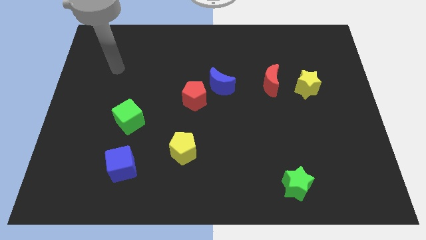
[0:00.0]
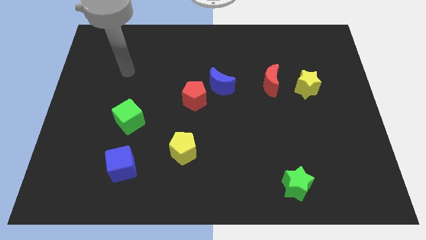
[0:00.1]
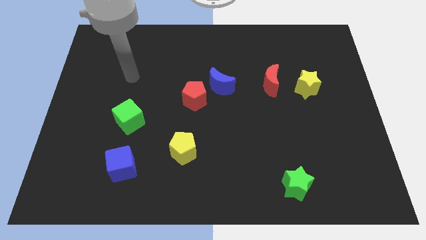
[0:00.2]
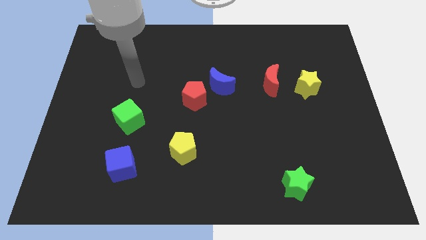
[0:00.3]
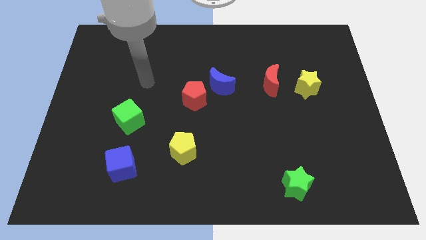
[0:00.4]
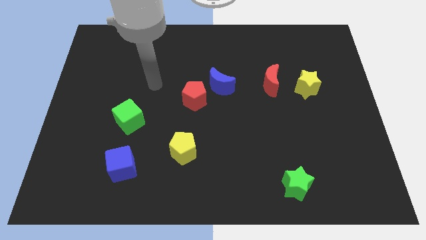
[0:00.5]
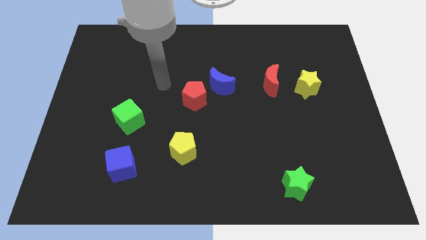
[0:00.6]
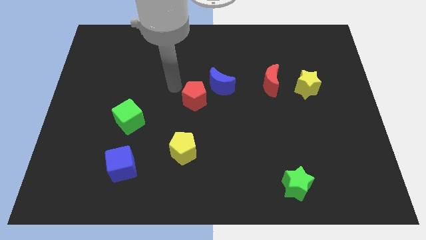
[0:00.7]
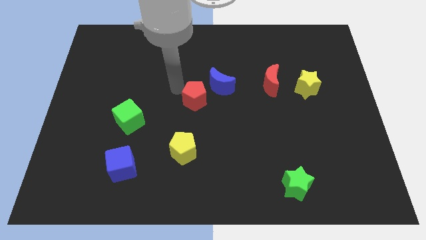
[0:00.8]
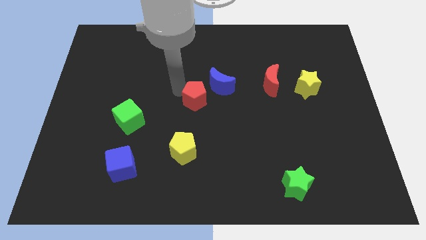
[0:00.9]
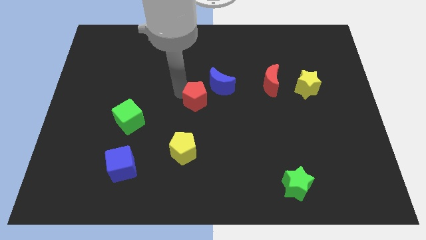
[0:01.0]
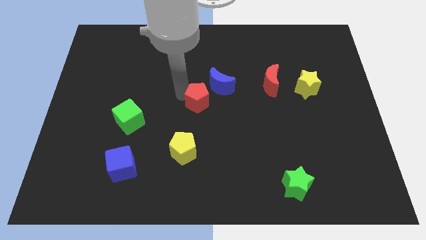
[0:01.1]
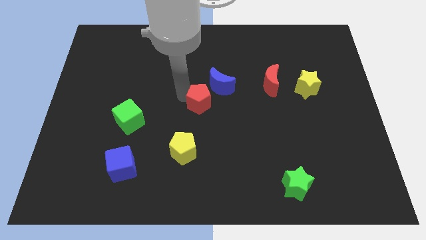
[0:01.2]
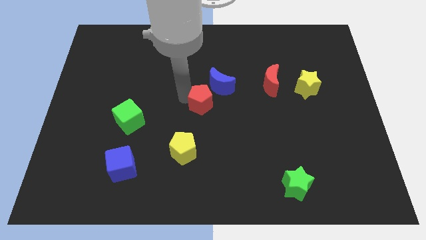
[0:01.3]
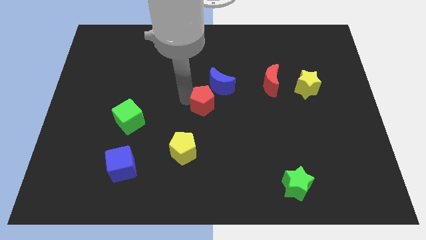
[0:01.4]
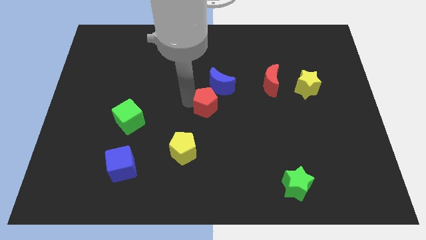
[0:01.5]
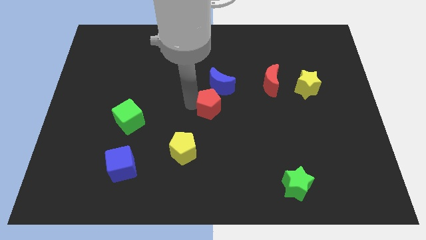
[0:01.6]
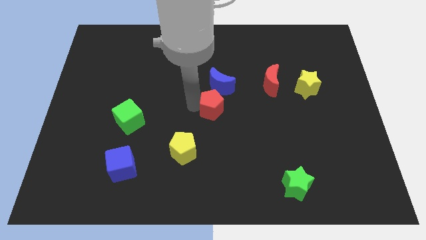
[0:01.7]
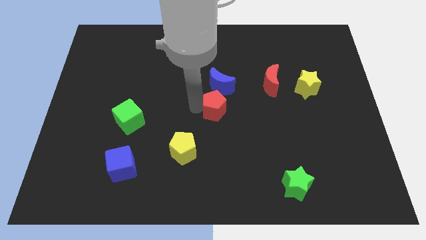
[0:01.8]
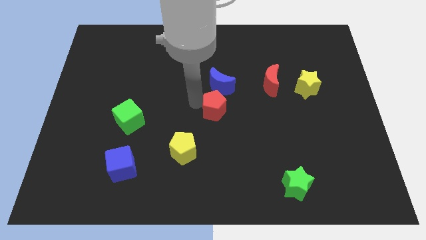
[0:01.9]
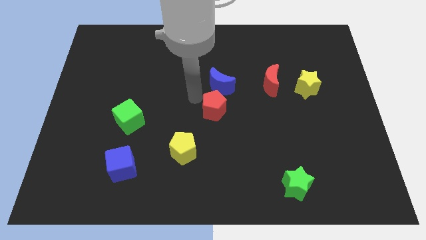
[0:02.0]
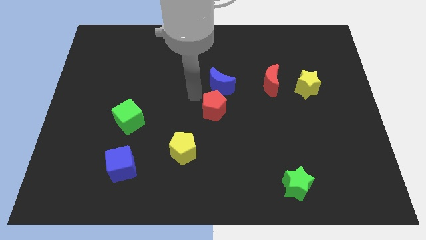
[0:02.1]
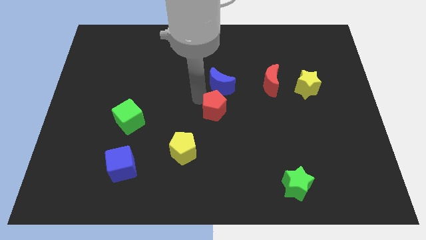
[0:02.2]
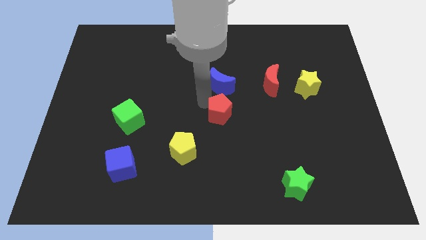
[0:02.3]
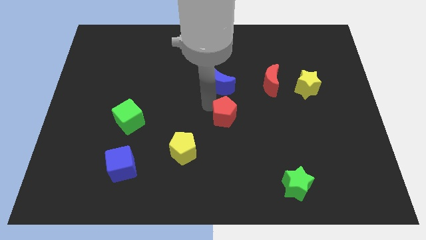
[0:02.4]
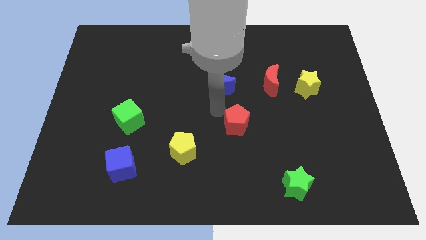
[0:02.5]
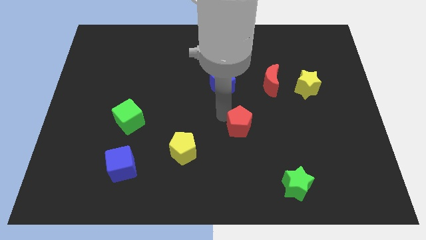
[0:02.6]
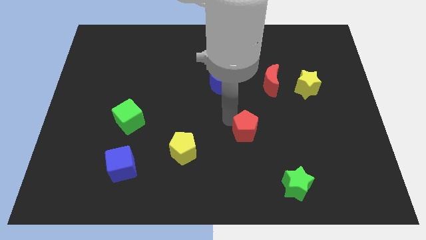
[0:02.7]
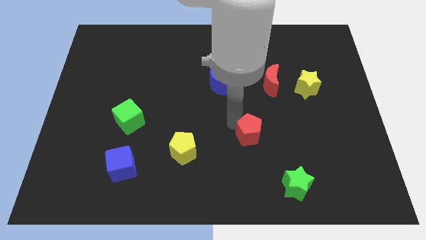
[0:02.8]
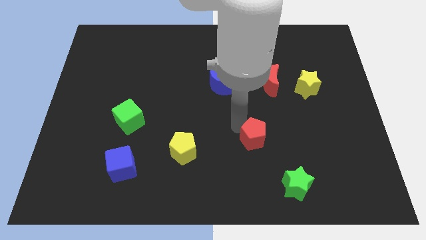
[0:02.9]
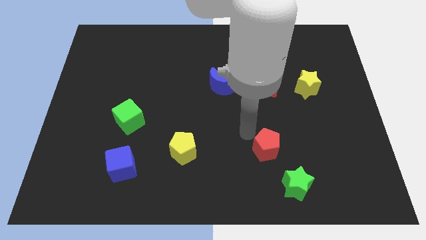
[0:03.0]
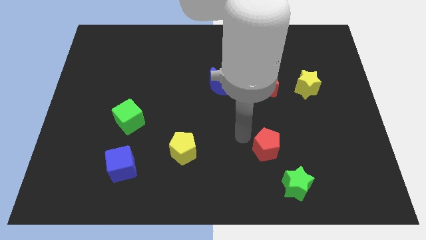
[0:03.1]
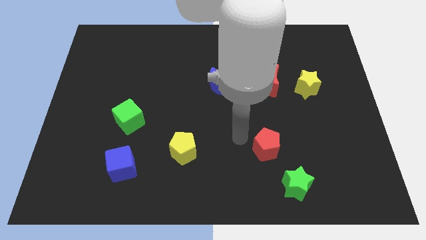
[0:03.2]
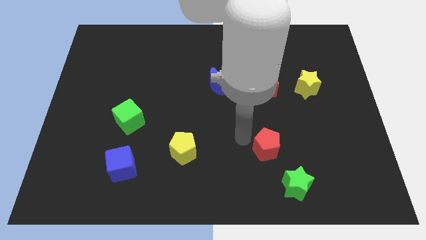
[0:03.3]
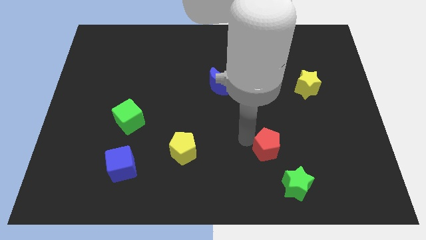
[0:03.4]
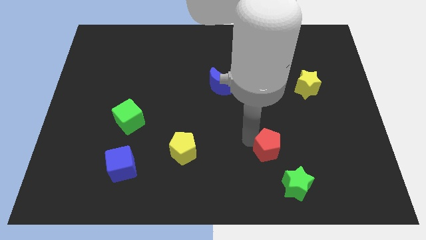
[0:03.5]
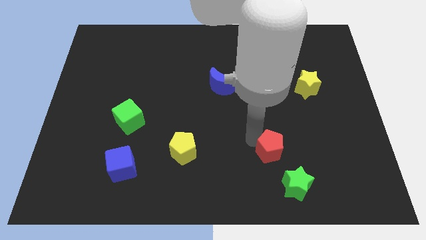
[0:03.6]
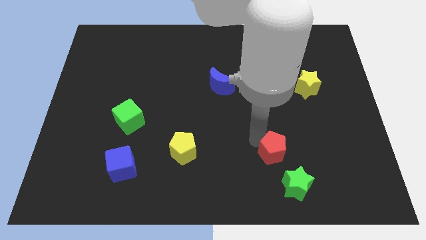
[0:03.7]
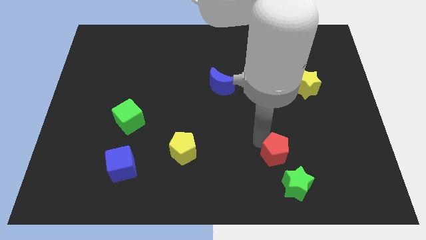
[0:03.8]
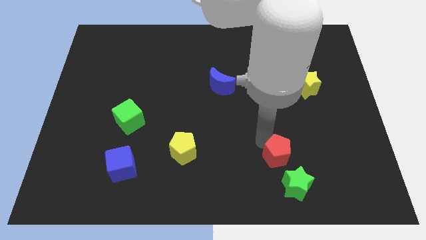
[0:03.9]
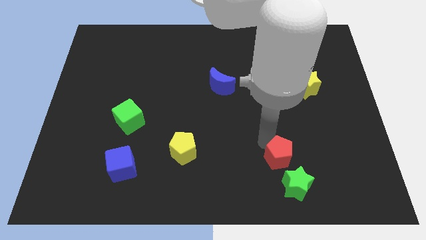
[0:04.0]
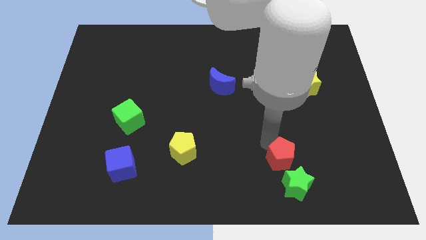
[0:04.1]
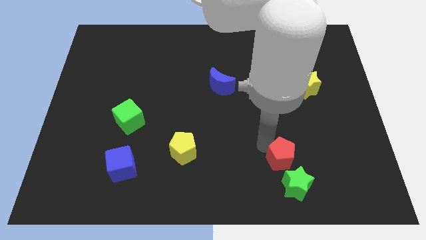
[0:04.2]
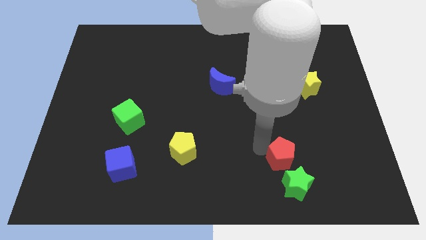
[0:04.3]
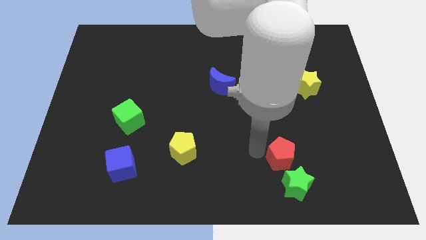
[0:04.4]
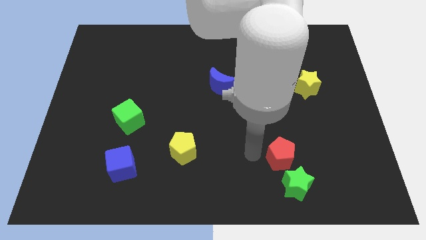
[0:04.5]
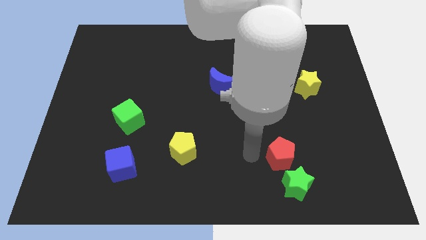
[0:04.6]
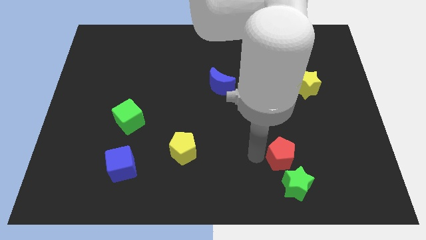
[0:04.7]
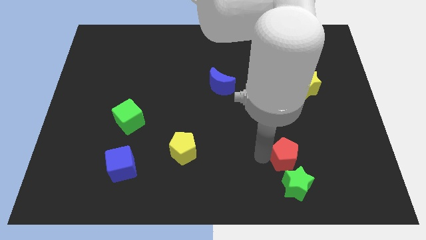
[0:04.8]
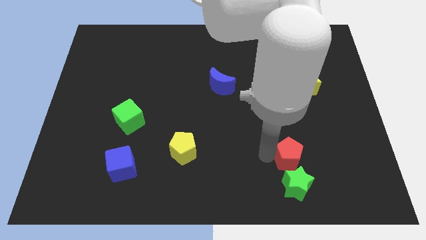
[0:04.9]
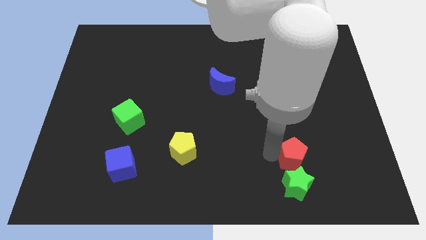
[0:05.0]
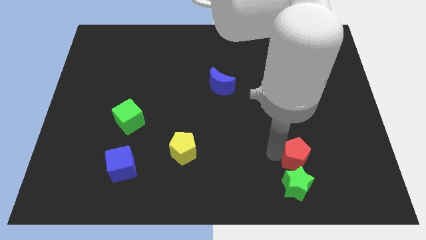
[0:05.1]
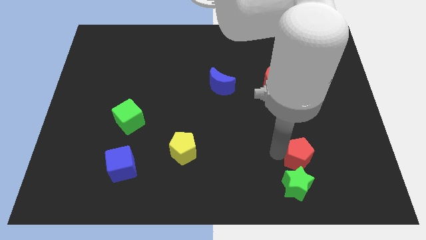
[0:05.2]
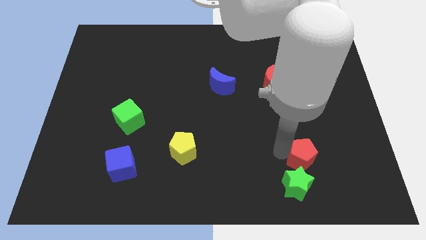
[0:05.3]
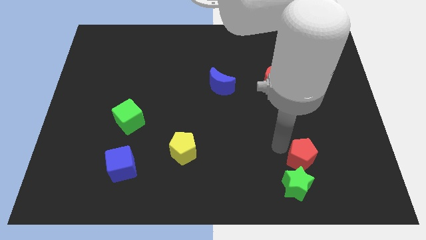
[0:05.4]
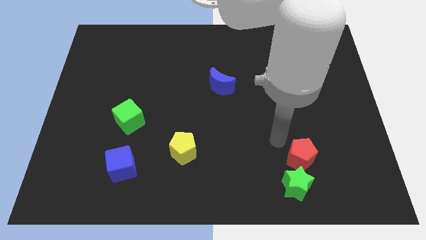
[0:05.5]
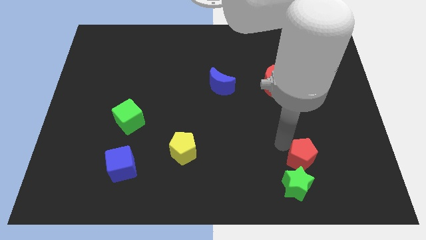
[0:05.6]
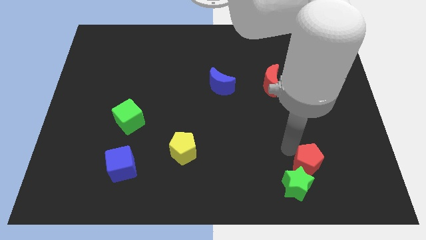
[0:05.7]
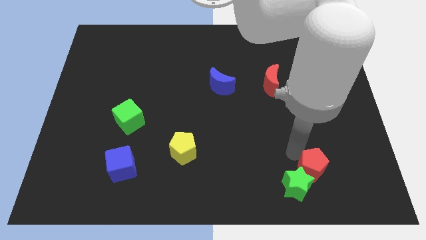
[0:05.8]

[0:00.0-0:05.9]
push the red pentagon to the right side of the green star
